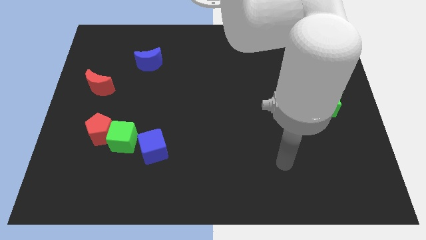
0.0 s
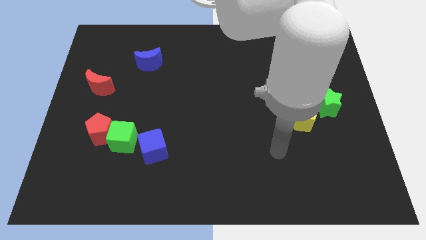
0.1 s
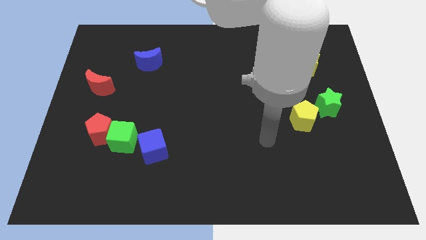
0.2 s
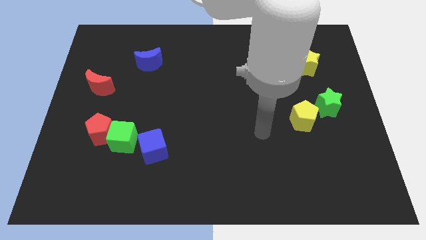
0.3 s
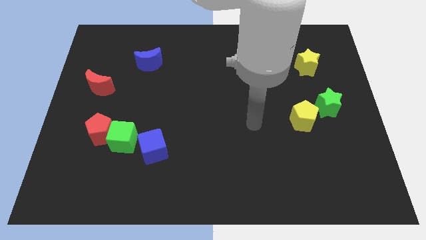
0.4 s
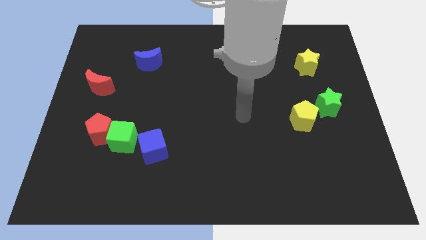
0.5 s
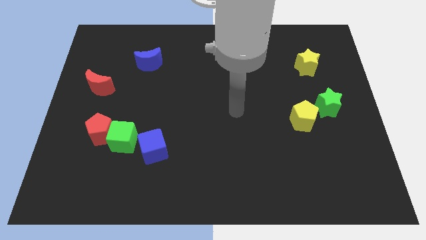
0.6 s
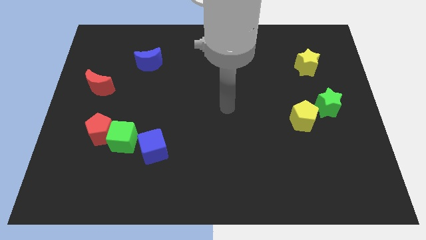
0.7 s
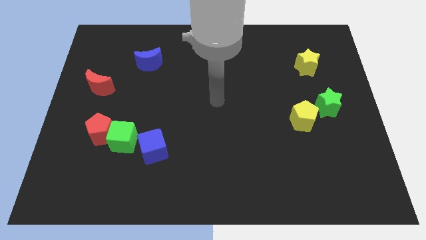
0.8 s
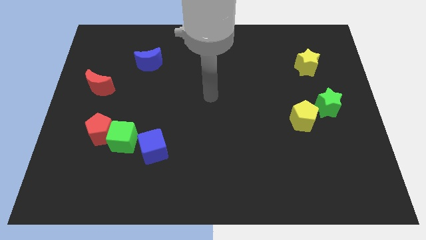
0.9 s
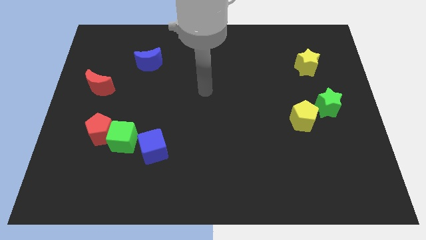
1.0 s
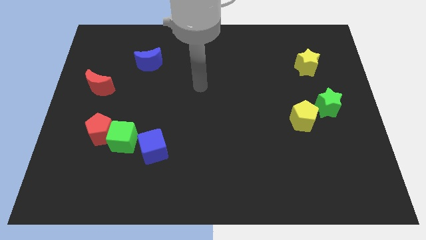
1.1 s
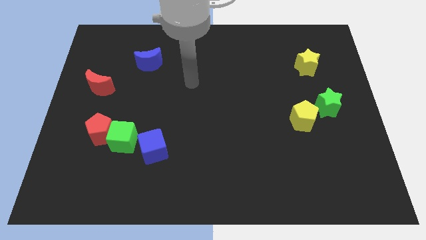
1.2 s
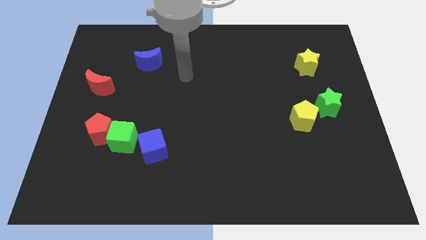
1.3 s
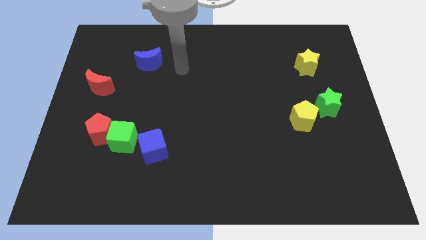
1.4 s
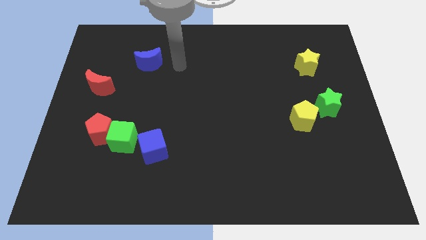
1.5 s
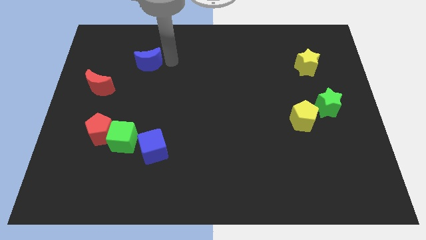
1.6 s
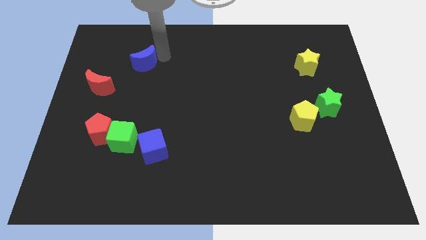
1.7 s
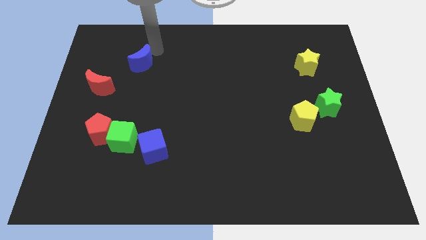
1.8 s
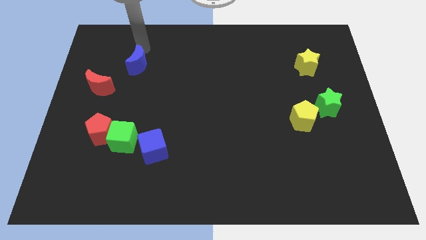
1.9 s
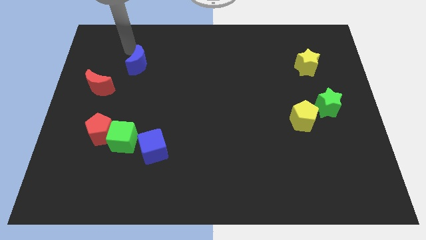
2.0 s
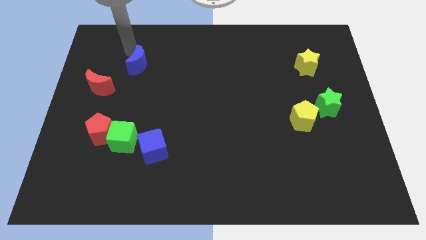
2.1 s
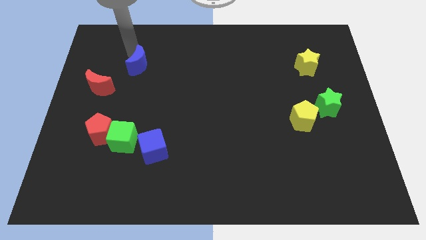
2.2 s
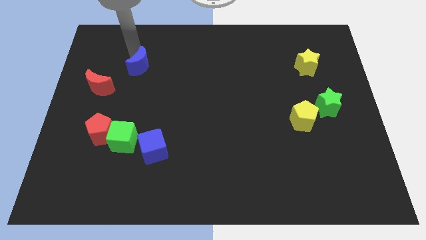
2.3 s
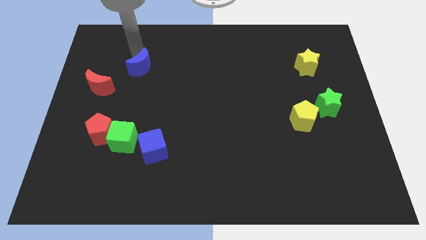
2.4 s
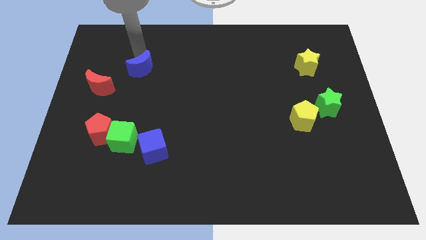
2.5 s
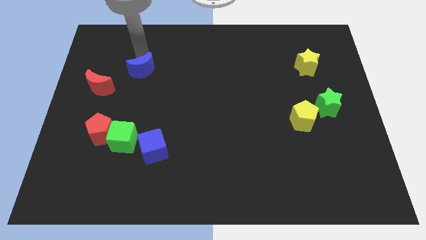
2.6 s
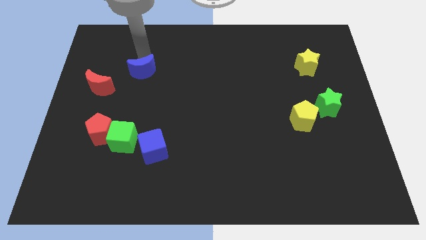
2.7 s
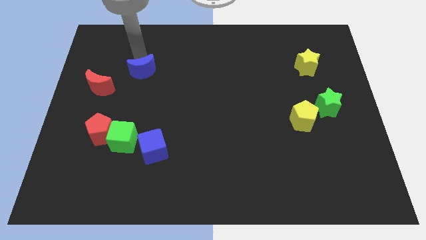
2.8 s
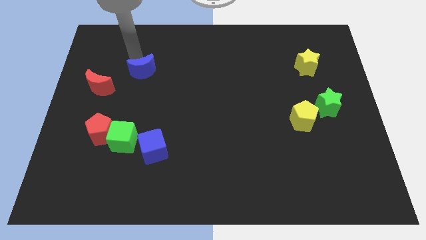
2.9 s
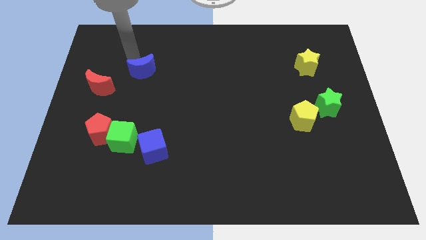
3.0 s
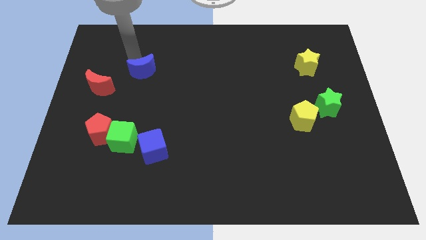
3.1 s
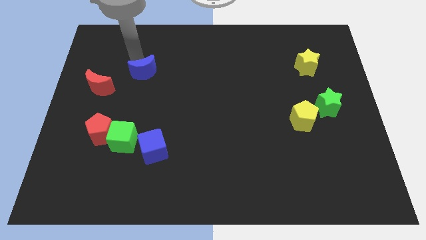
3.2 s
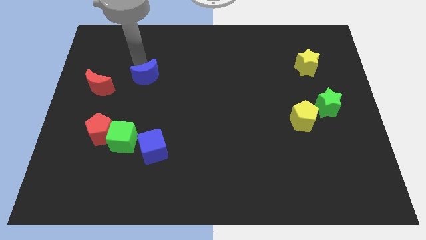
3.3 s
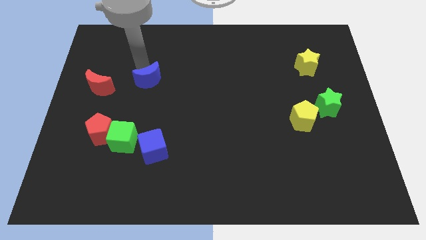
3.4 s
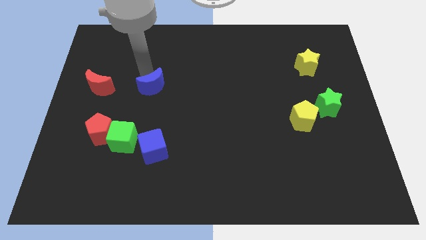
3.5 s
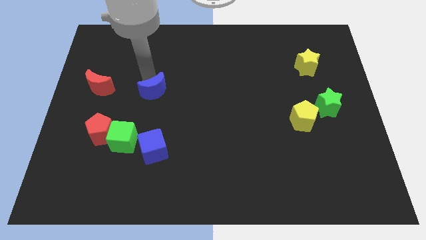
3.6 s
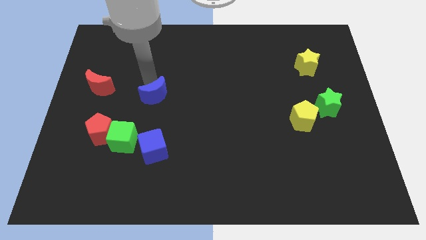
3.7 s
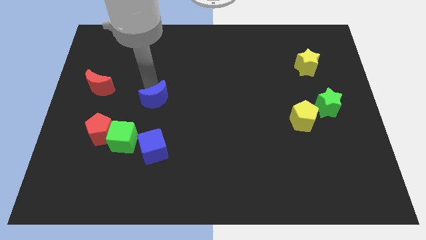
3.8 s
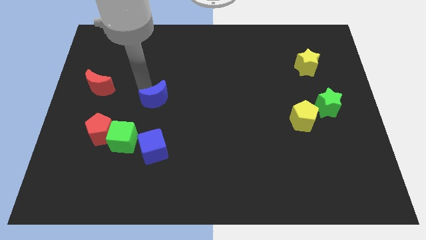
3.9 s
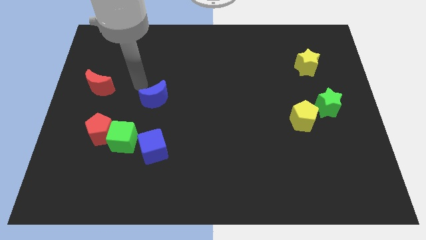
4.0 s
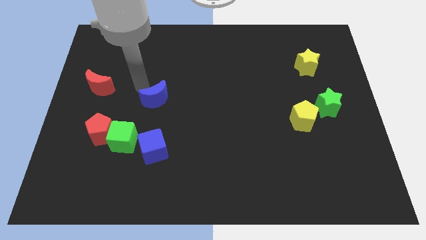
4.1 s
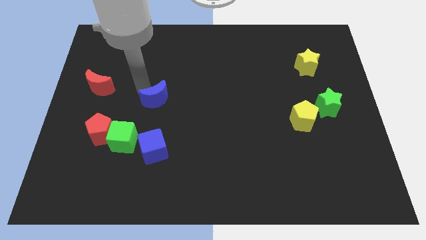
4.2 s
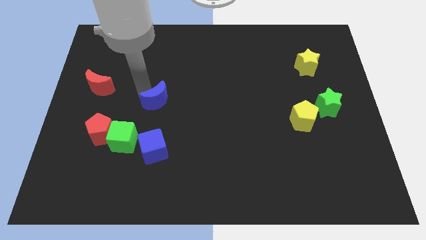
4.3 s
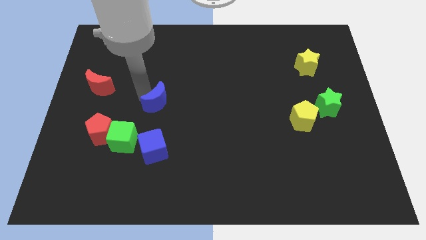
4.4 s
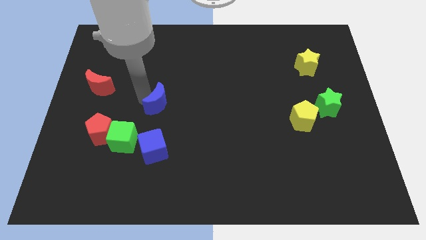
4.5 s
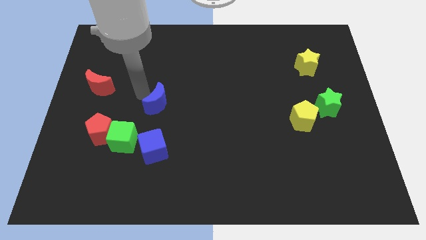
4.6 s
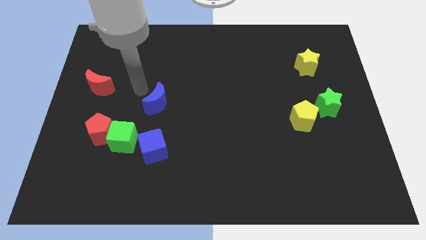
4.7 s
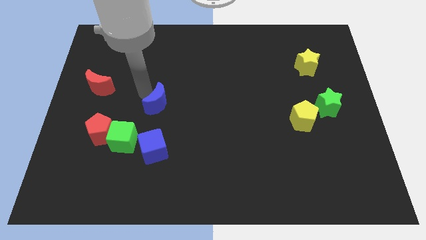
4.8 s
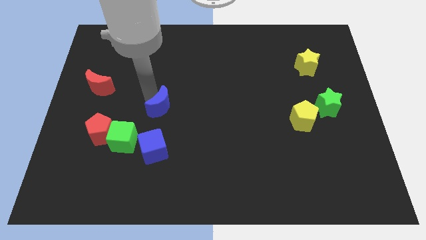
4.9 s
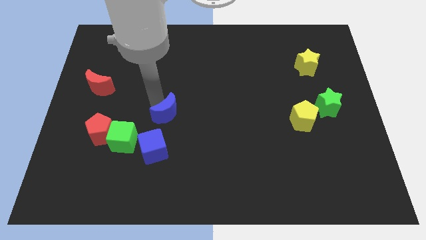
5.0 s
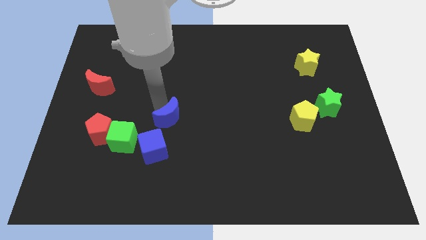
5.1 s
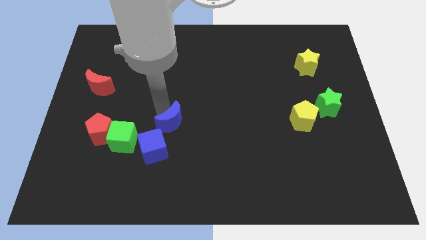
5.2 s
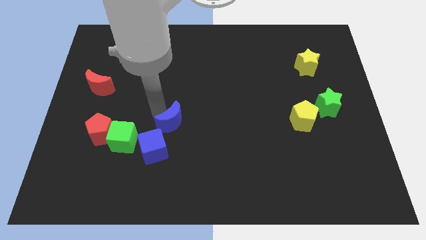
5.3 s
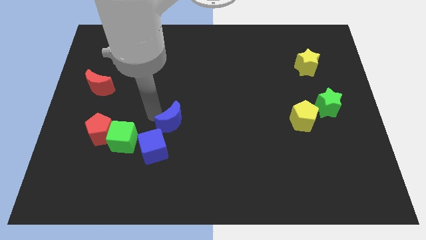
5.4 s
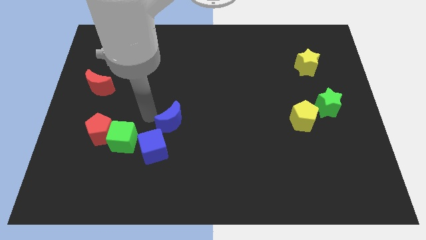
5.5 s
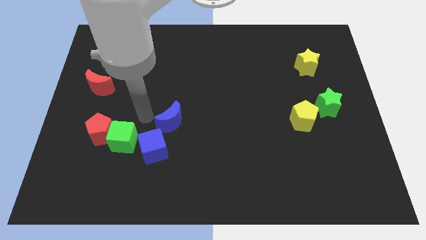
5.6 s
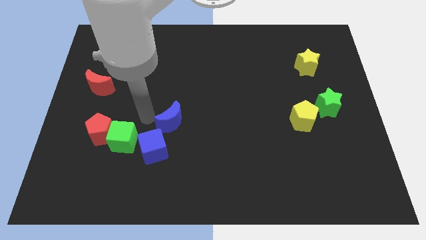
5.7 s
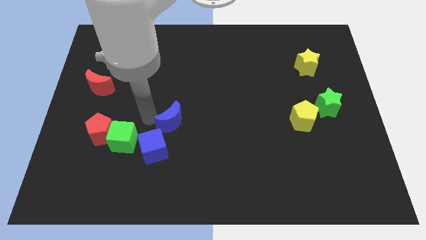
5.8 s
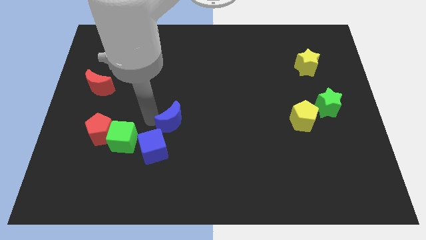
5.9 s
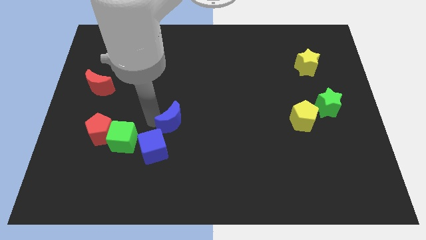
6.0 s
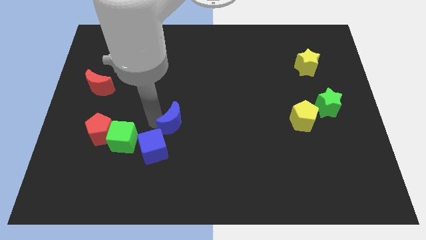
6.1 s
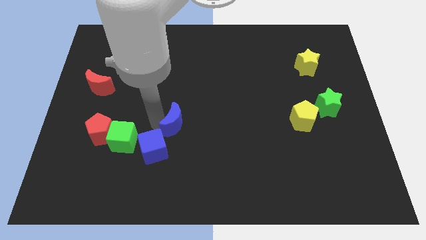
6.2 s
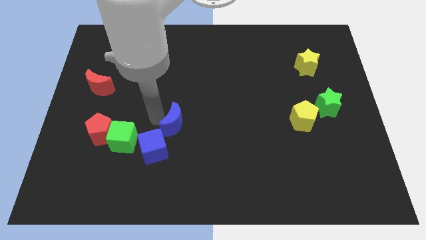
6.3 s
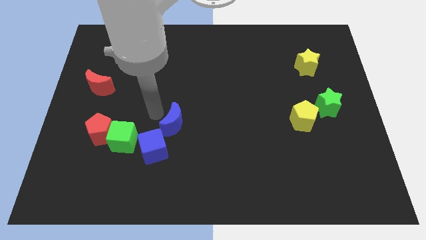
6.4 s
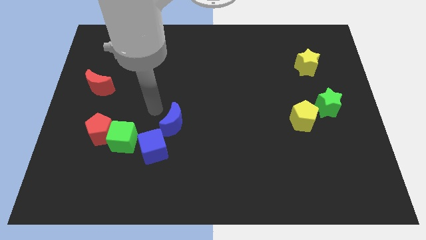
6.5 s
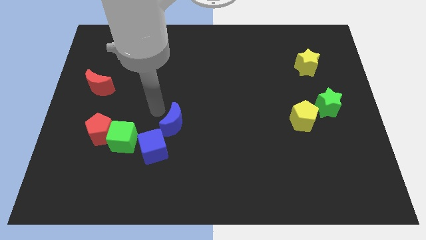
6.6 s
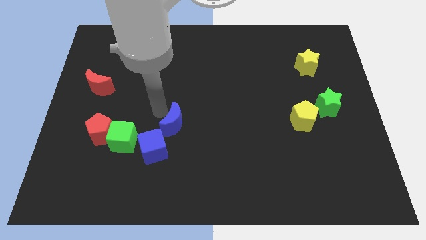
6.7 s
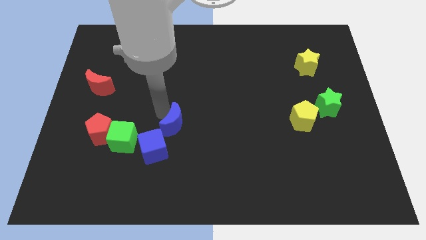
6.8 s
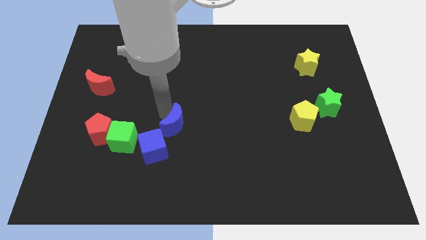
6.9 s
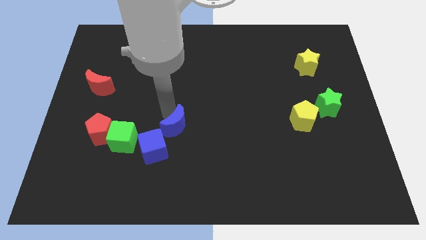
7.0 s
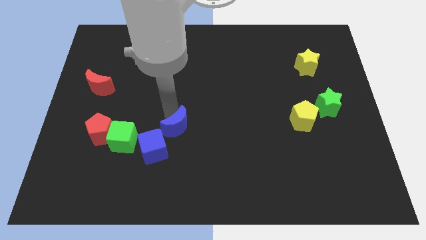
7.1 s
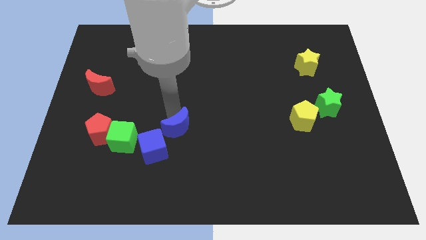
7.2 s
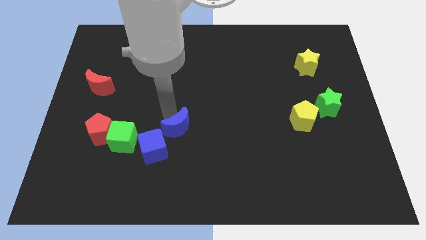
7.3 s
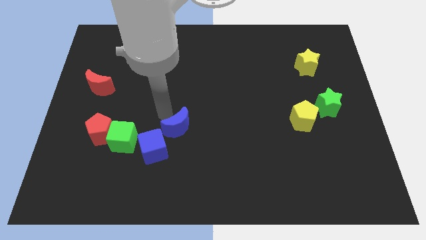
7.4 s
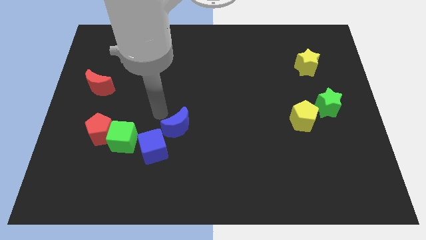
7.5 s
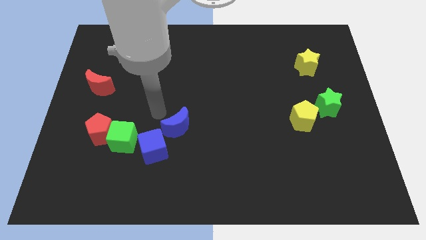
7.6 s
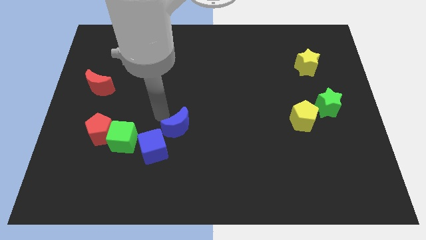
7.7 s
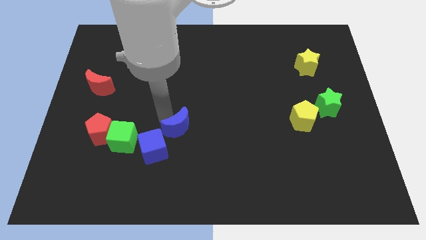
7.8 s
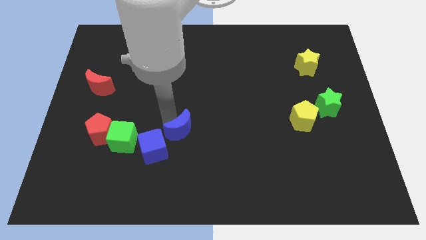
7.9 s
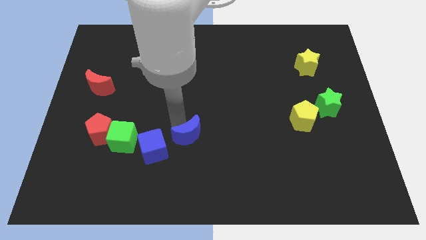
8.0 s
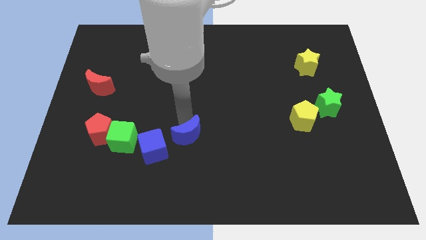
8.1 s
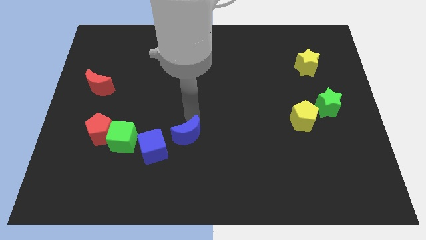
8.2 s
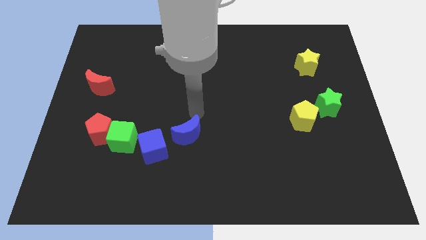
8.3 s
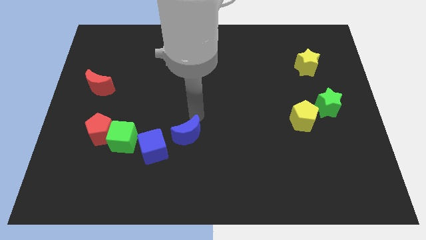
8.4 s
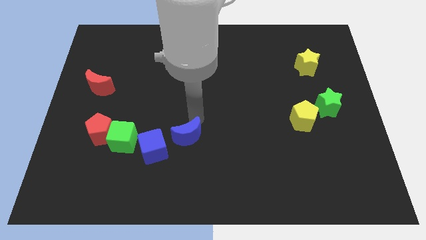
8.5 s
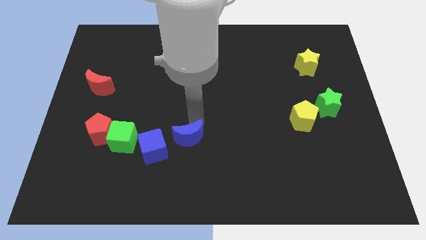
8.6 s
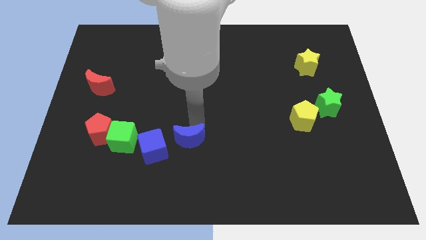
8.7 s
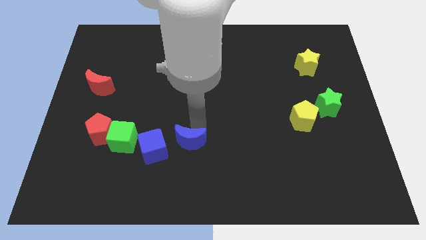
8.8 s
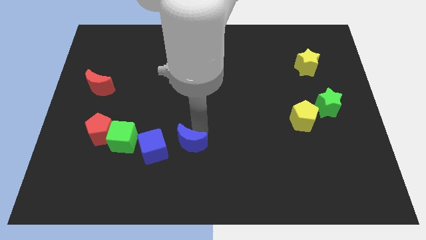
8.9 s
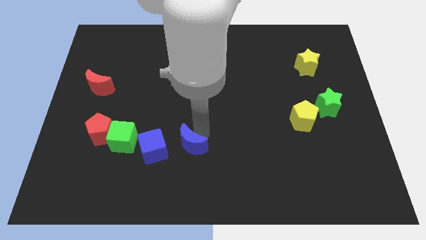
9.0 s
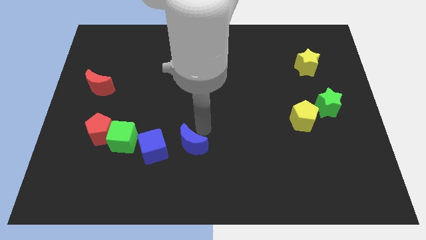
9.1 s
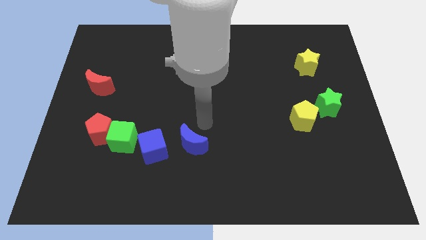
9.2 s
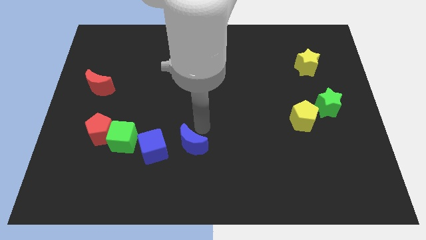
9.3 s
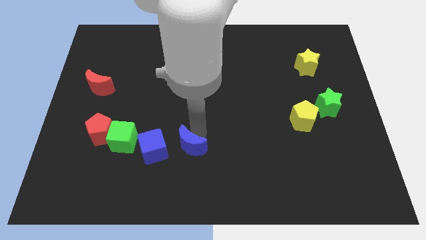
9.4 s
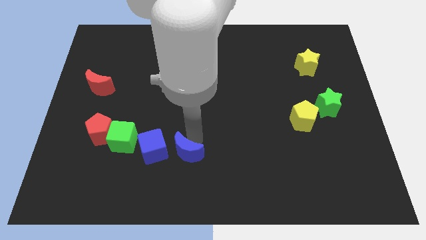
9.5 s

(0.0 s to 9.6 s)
slide the blue moon diagonally down and to the right of the blue cube
